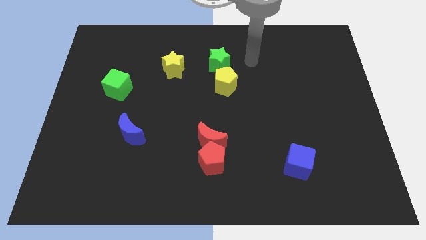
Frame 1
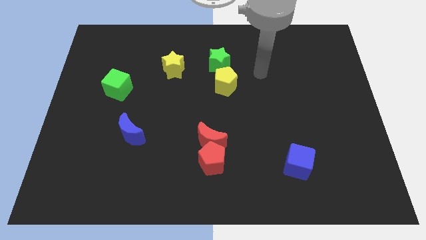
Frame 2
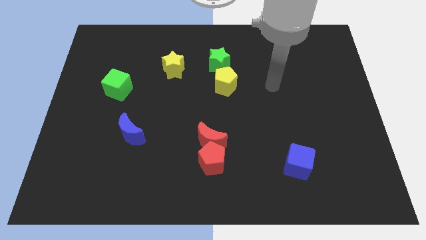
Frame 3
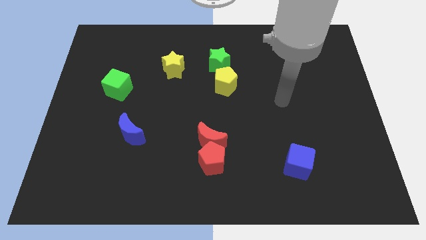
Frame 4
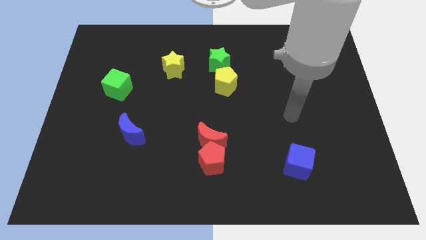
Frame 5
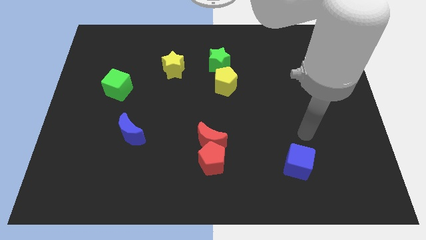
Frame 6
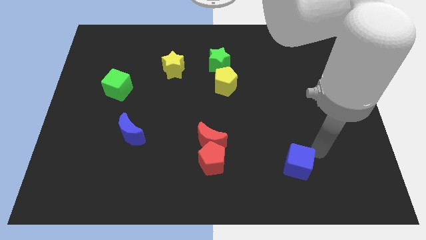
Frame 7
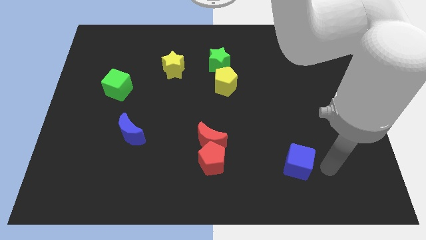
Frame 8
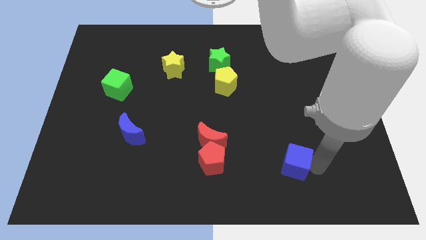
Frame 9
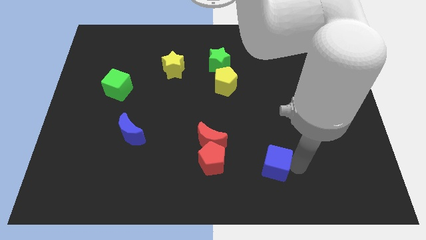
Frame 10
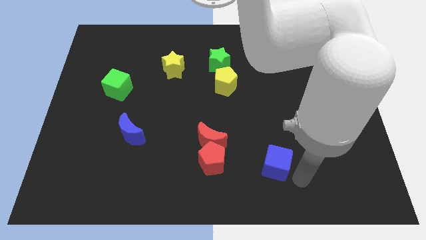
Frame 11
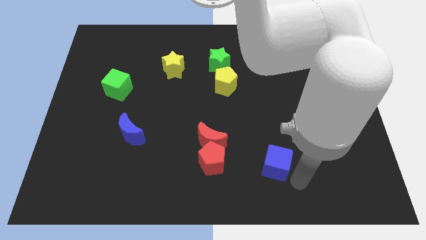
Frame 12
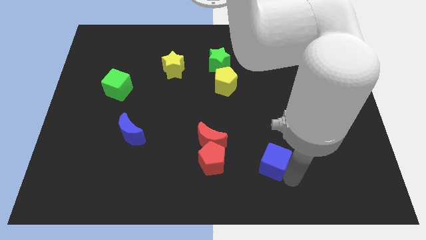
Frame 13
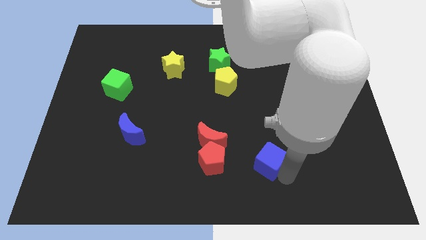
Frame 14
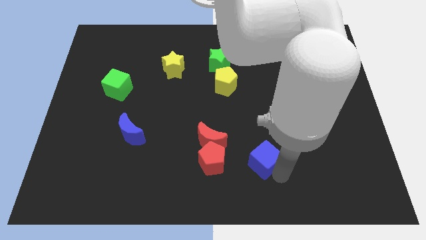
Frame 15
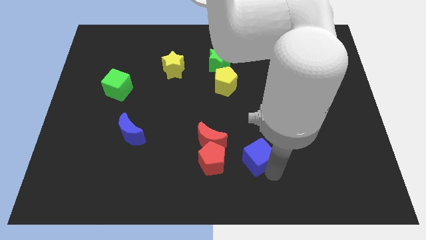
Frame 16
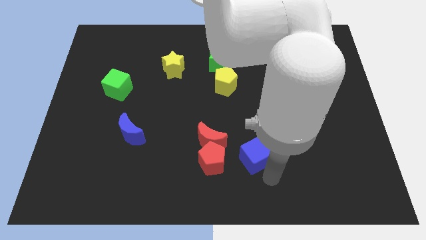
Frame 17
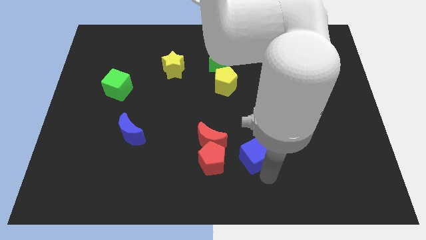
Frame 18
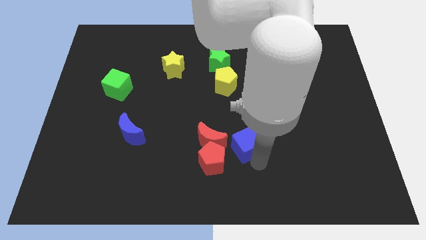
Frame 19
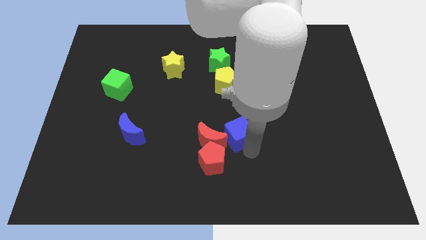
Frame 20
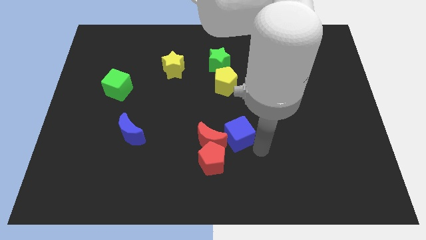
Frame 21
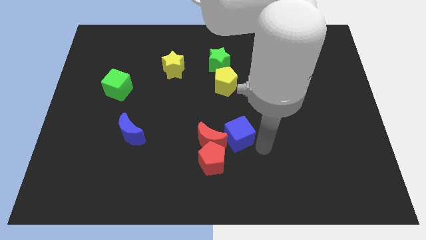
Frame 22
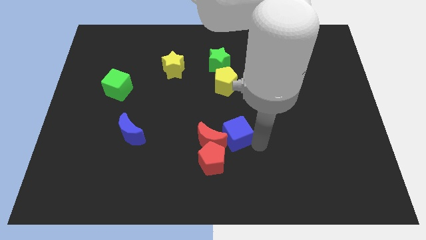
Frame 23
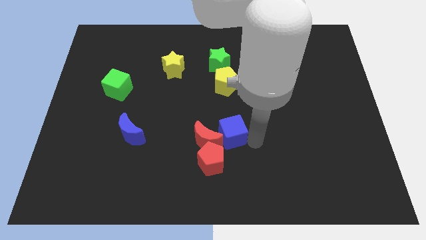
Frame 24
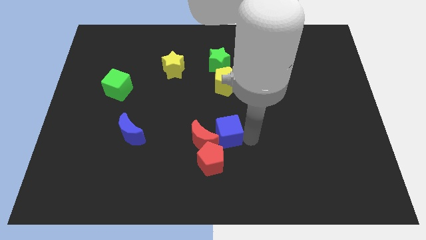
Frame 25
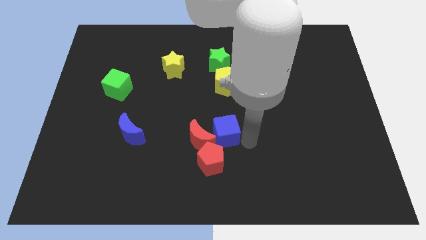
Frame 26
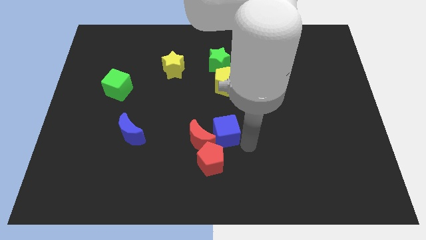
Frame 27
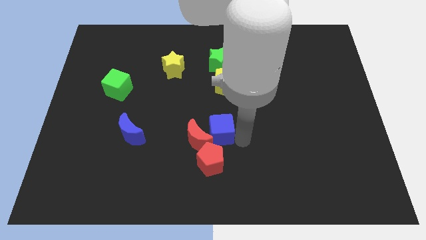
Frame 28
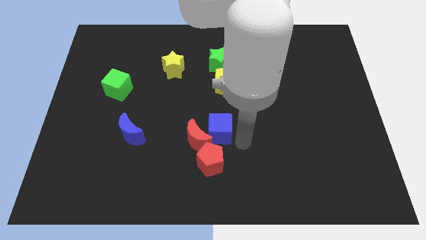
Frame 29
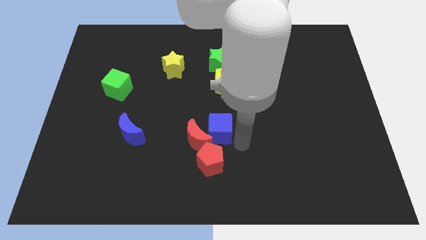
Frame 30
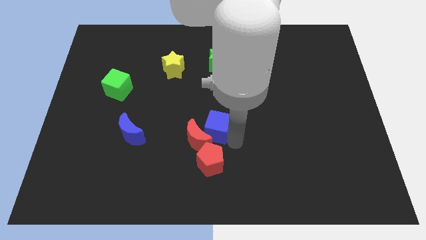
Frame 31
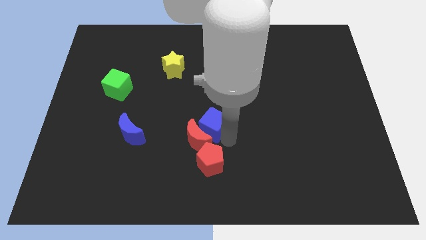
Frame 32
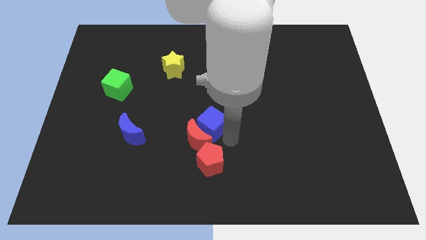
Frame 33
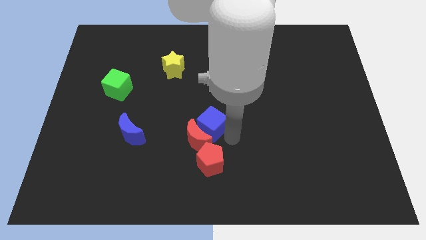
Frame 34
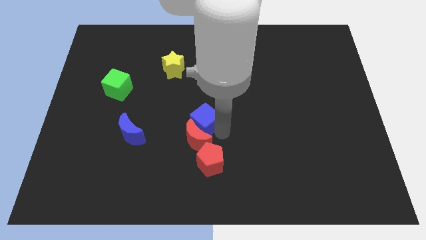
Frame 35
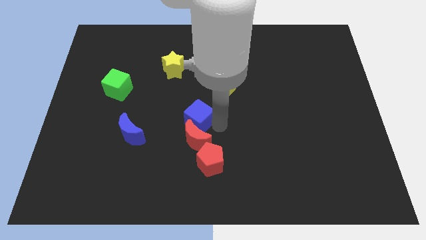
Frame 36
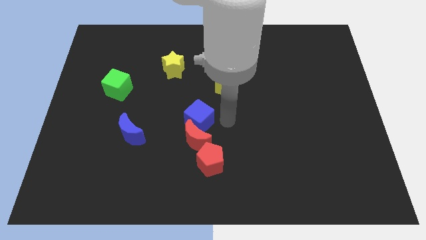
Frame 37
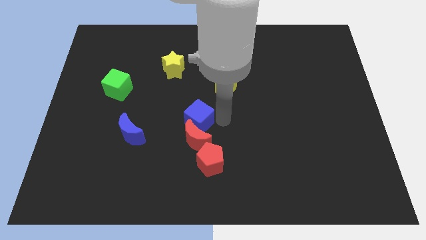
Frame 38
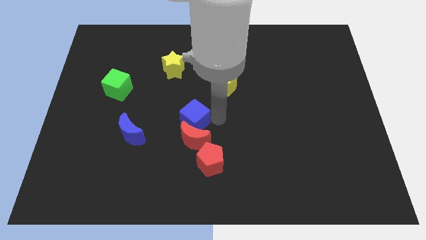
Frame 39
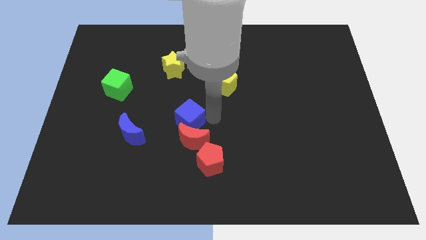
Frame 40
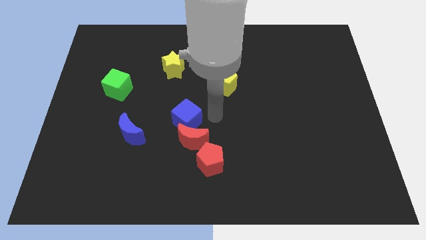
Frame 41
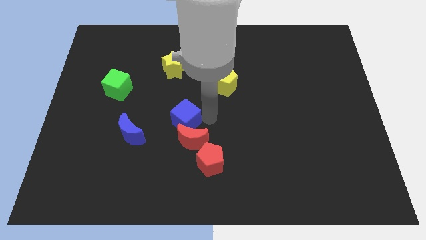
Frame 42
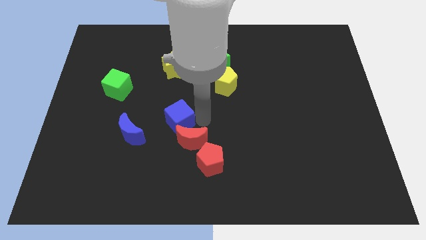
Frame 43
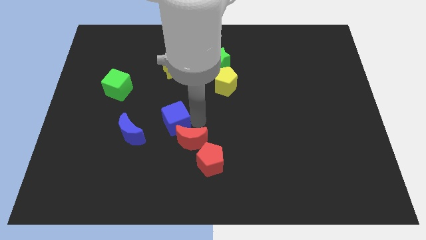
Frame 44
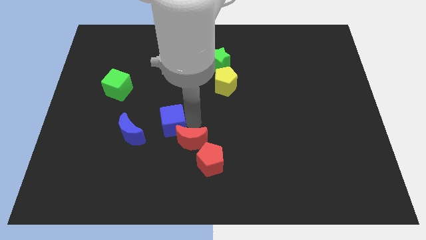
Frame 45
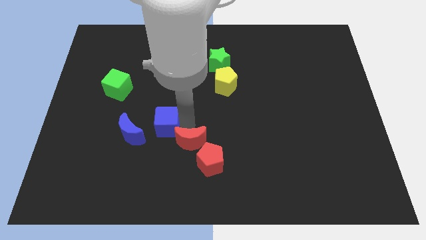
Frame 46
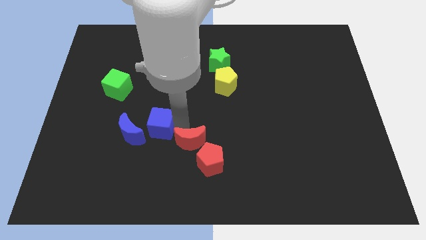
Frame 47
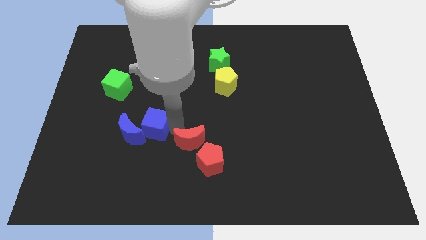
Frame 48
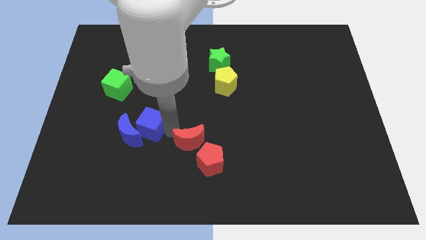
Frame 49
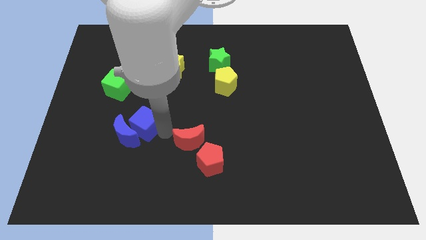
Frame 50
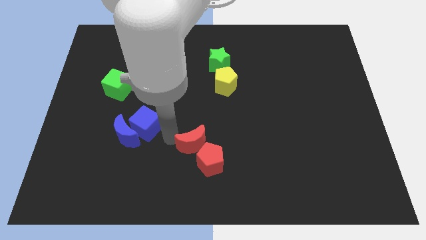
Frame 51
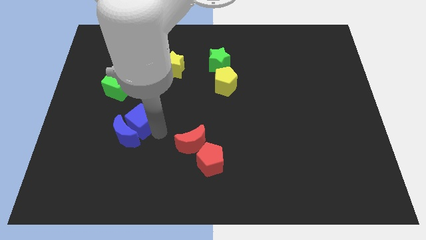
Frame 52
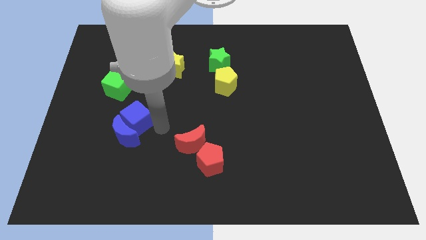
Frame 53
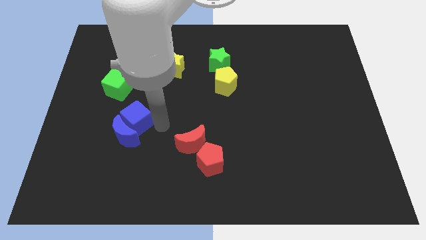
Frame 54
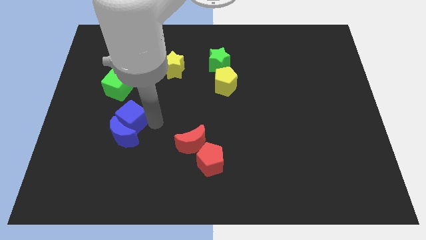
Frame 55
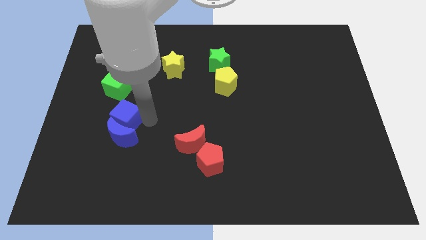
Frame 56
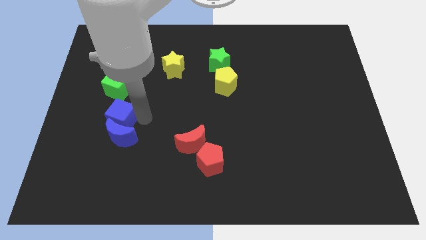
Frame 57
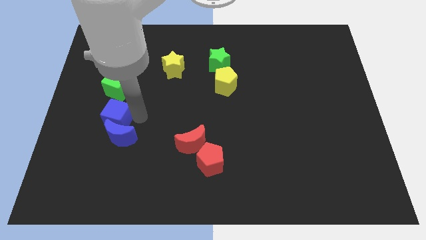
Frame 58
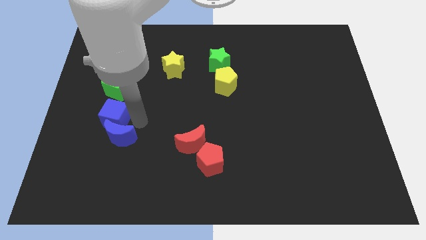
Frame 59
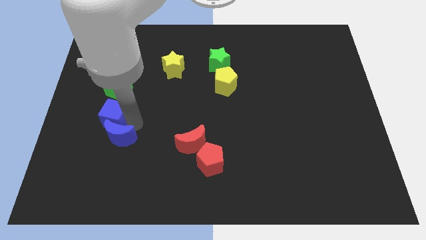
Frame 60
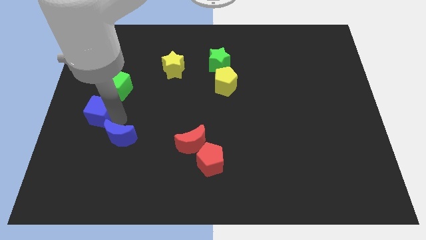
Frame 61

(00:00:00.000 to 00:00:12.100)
push the blue cube to the left side of the board
